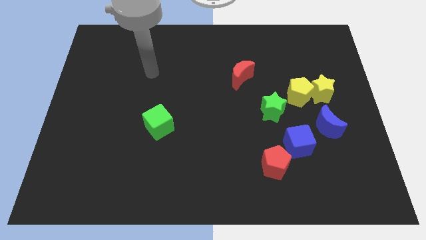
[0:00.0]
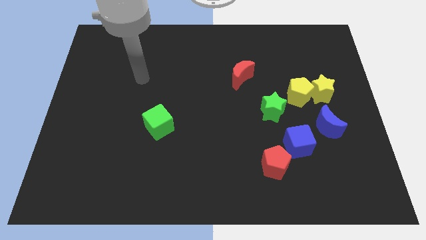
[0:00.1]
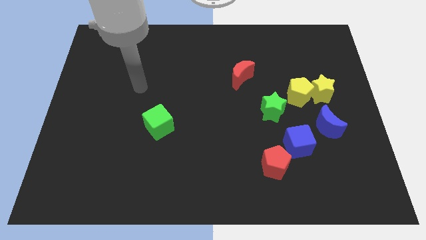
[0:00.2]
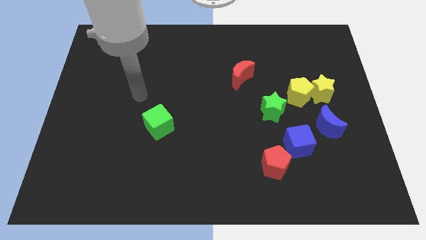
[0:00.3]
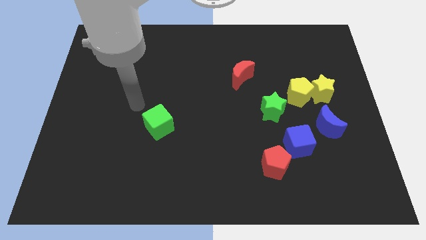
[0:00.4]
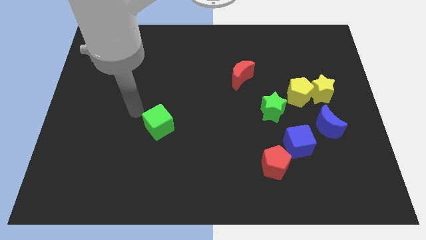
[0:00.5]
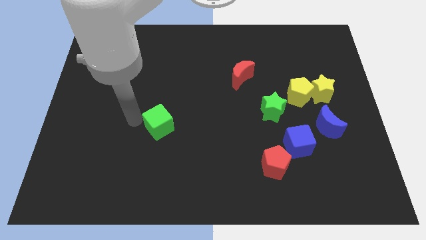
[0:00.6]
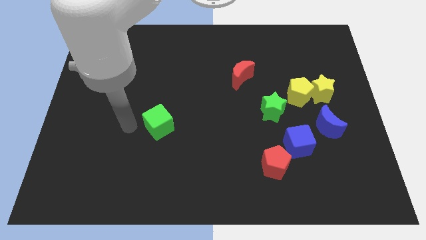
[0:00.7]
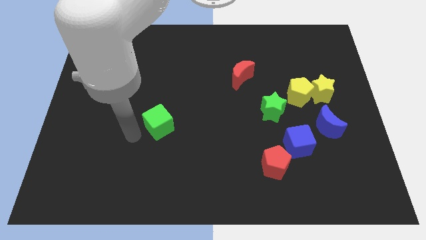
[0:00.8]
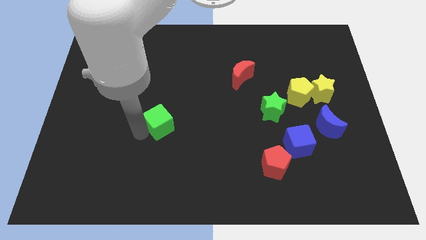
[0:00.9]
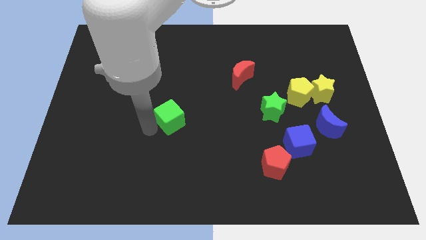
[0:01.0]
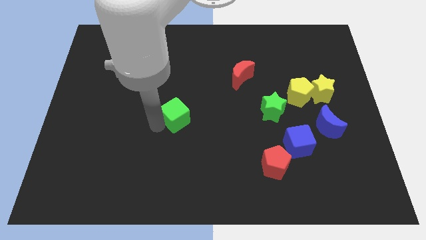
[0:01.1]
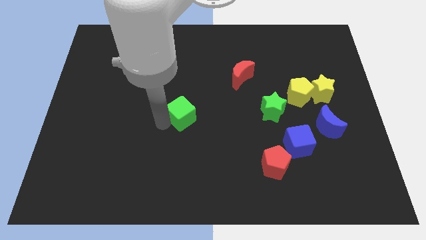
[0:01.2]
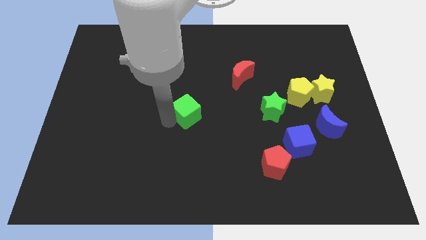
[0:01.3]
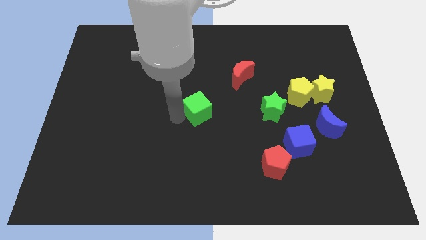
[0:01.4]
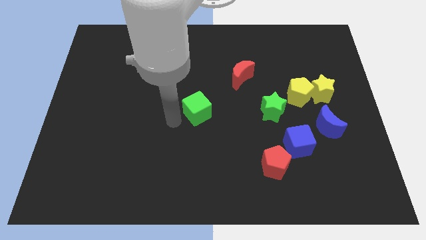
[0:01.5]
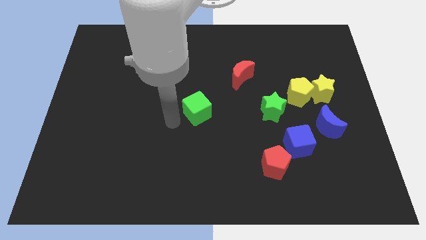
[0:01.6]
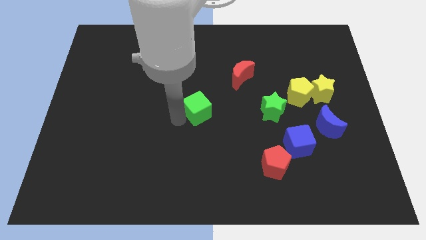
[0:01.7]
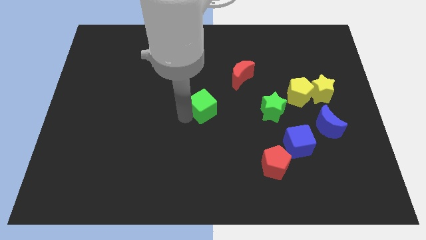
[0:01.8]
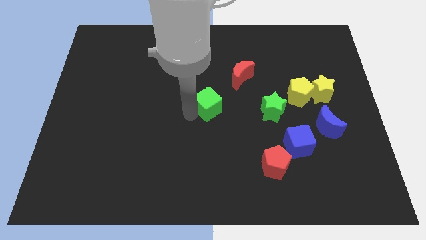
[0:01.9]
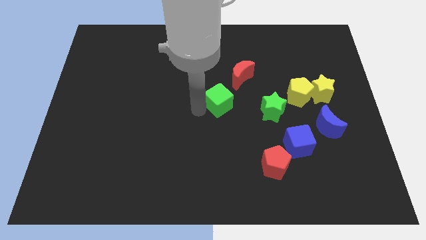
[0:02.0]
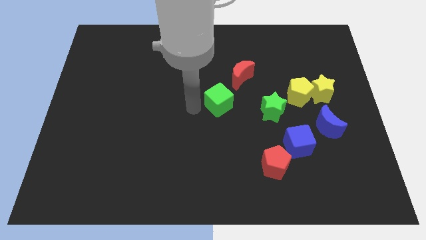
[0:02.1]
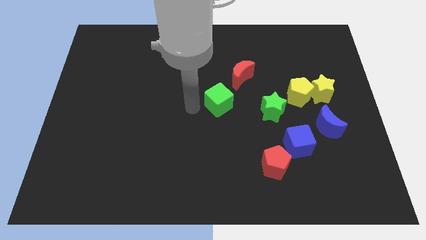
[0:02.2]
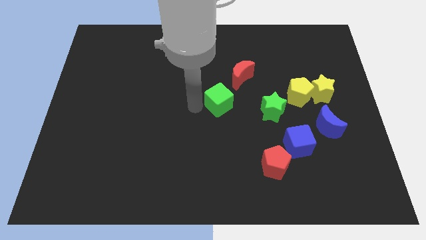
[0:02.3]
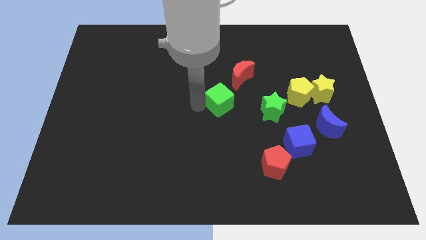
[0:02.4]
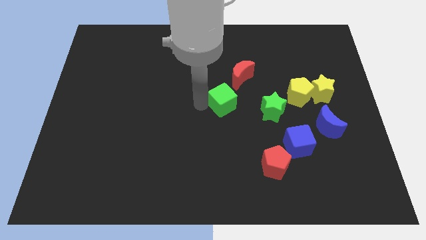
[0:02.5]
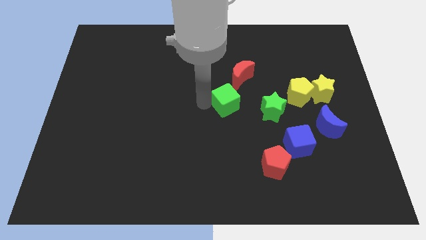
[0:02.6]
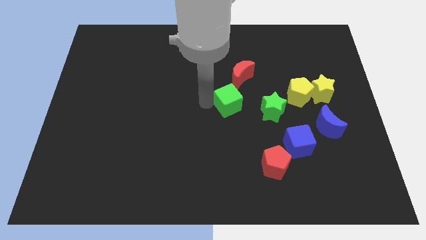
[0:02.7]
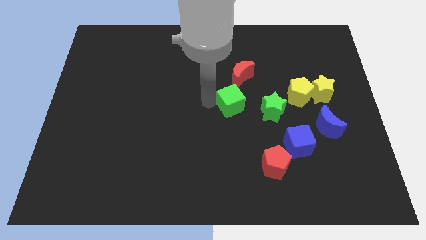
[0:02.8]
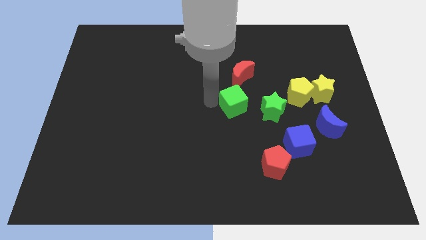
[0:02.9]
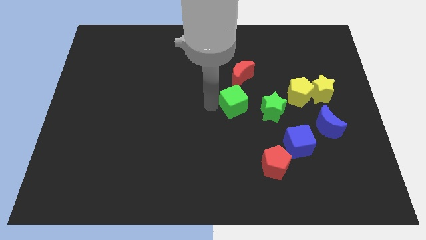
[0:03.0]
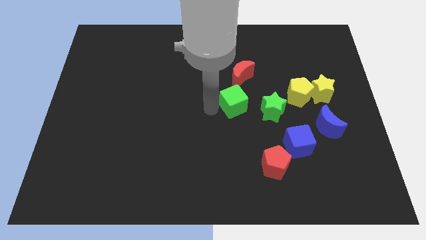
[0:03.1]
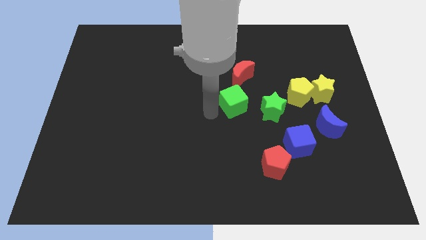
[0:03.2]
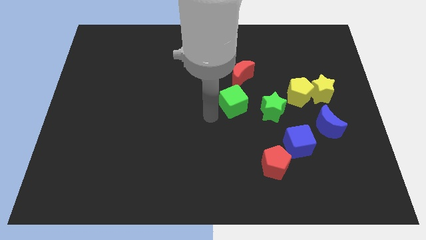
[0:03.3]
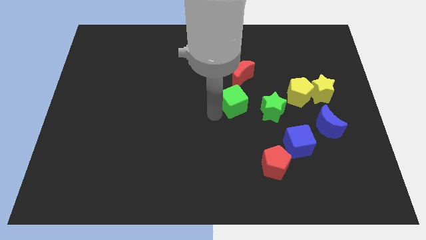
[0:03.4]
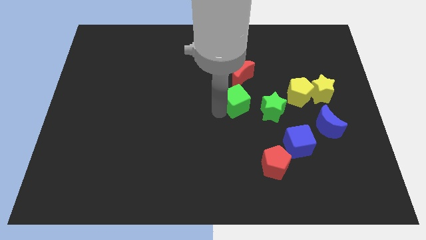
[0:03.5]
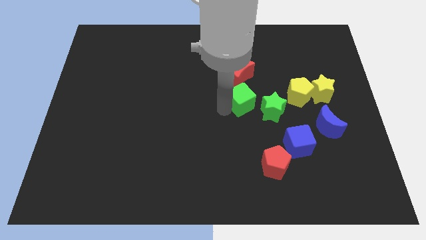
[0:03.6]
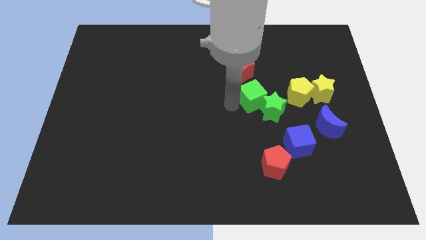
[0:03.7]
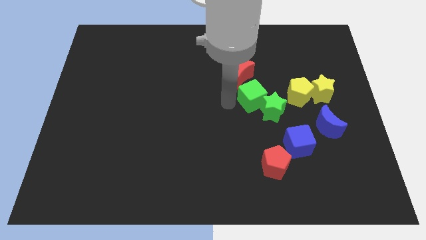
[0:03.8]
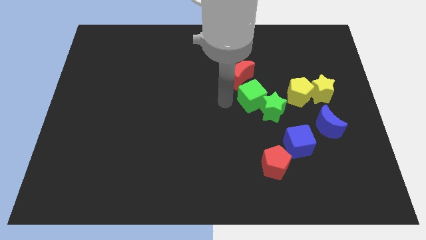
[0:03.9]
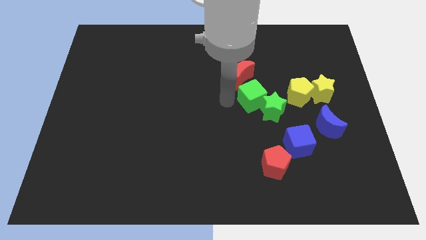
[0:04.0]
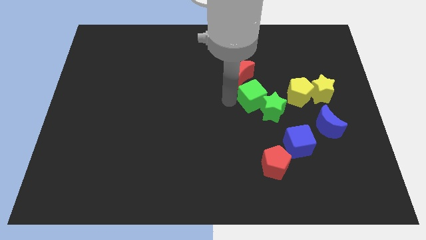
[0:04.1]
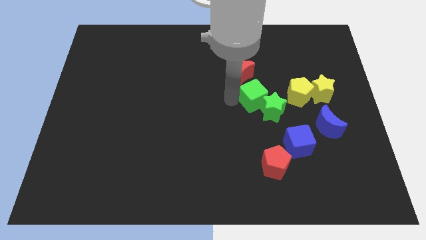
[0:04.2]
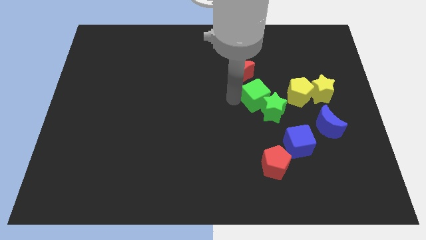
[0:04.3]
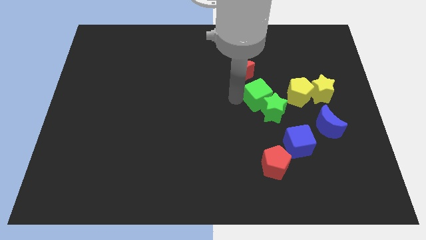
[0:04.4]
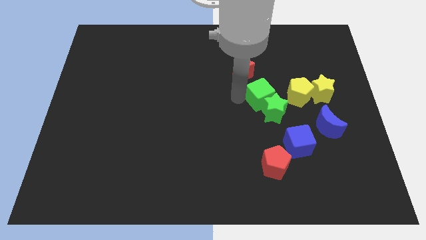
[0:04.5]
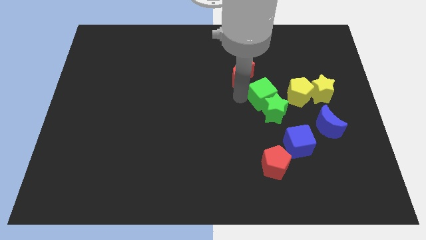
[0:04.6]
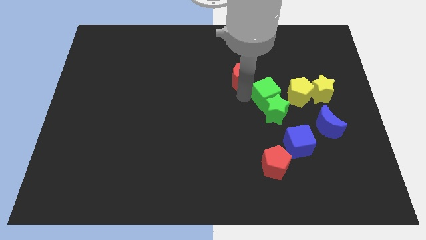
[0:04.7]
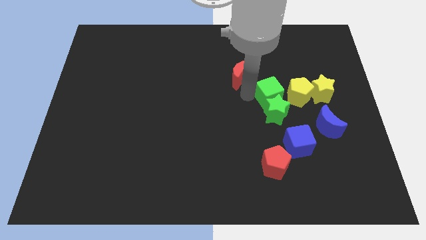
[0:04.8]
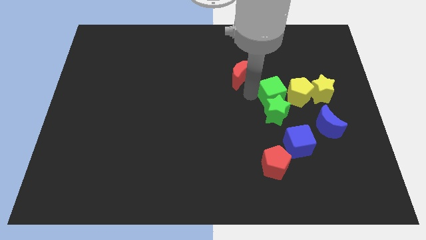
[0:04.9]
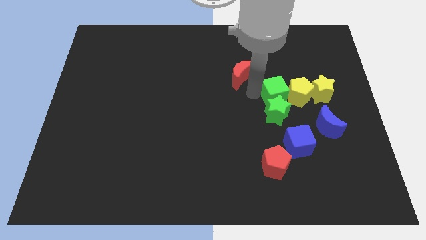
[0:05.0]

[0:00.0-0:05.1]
put the green cube towards the yellow pentagon

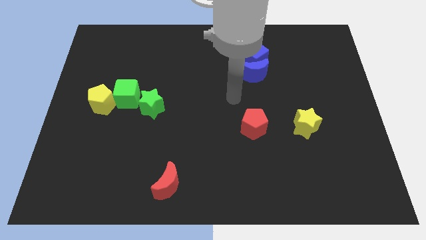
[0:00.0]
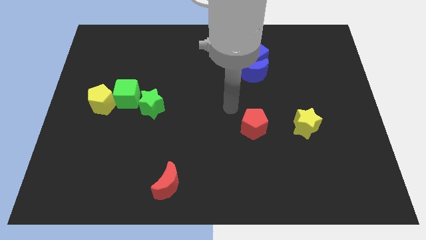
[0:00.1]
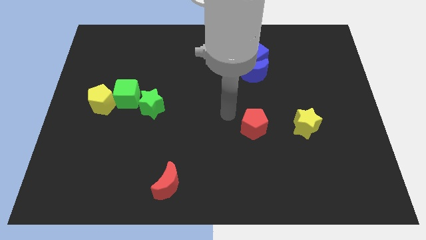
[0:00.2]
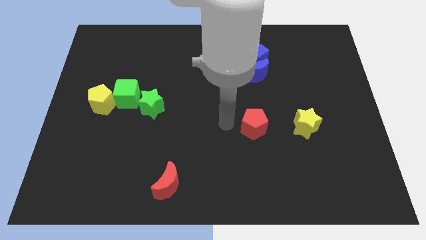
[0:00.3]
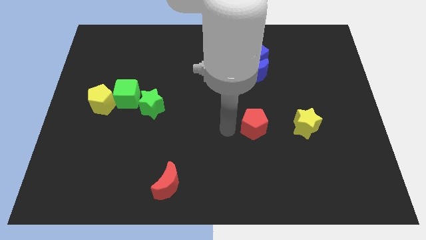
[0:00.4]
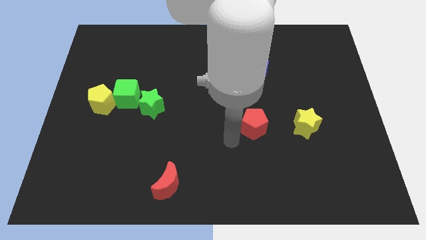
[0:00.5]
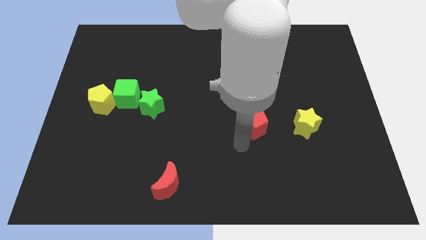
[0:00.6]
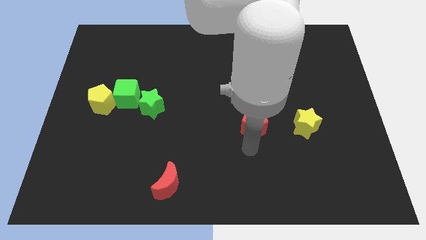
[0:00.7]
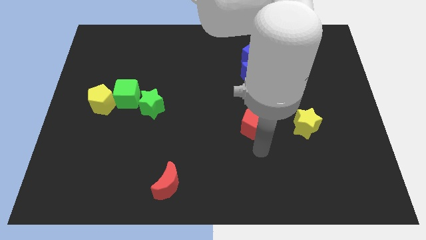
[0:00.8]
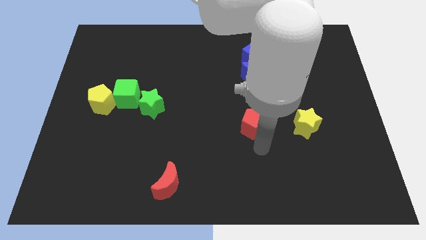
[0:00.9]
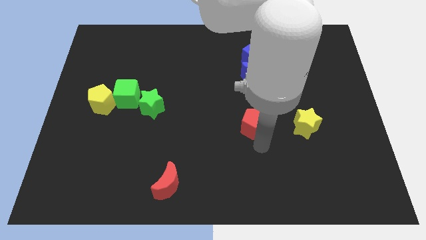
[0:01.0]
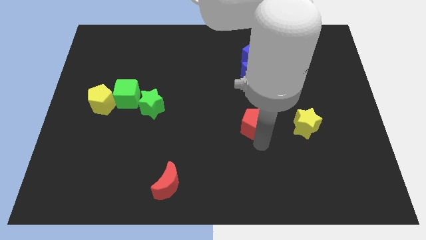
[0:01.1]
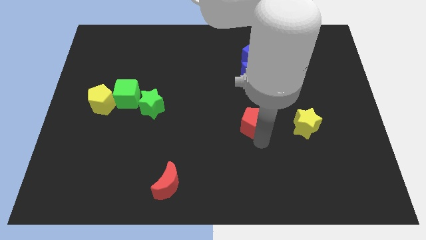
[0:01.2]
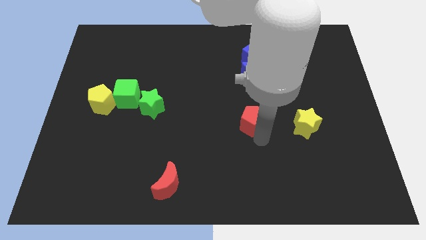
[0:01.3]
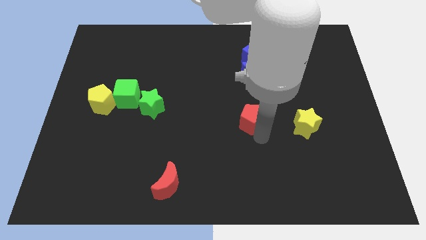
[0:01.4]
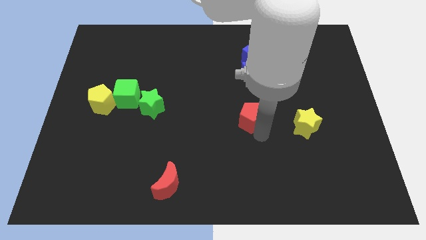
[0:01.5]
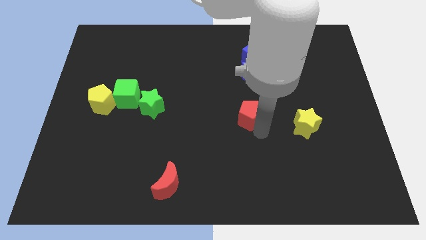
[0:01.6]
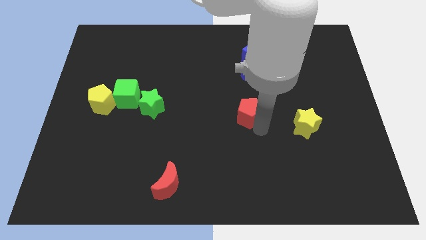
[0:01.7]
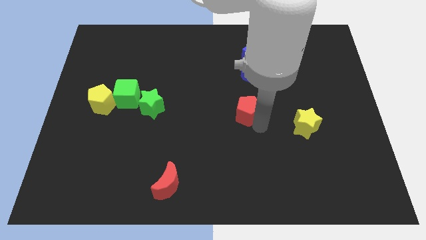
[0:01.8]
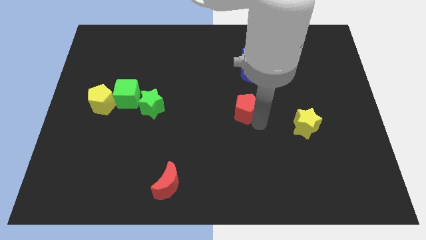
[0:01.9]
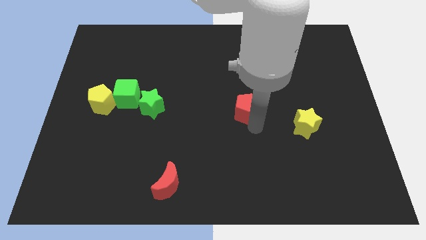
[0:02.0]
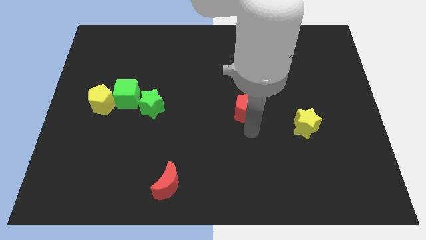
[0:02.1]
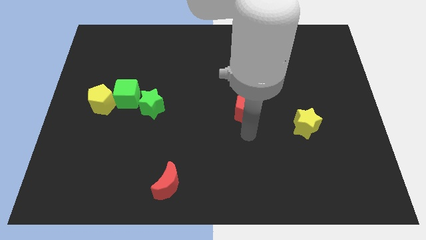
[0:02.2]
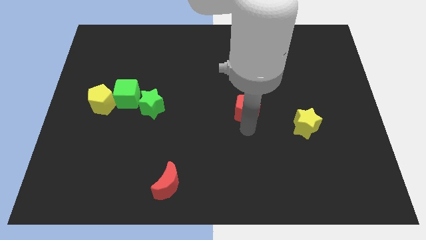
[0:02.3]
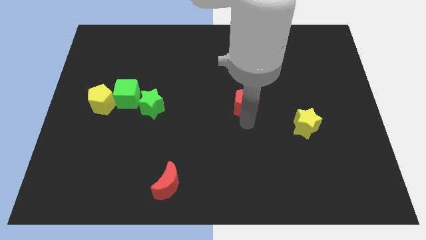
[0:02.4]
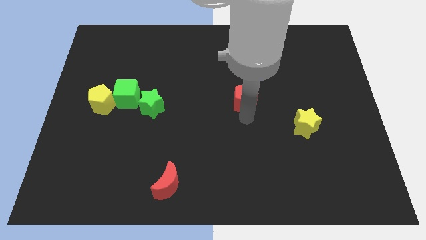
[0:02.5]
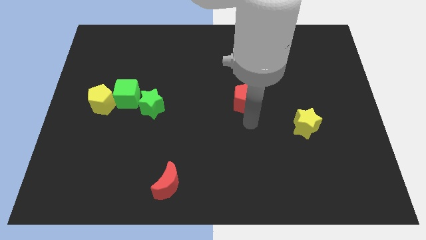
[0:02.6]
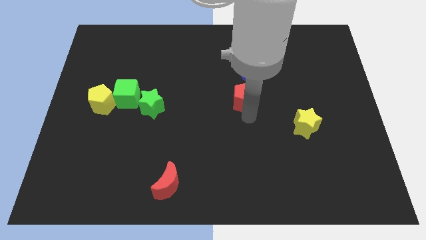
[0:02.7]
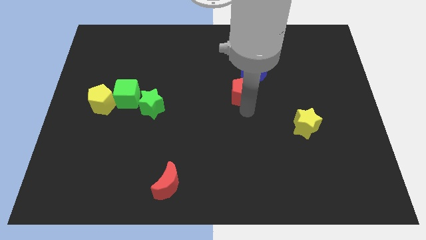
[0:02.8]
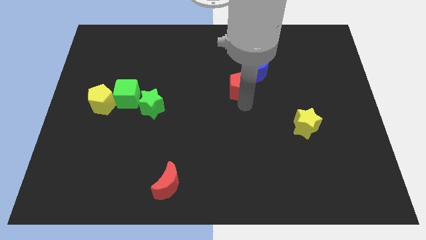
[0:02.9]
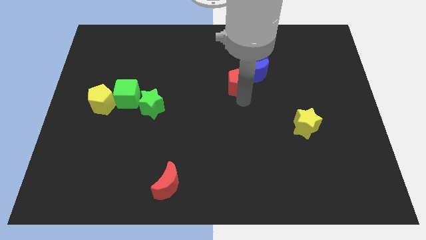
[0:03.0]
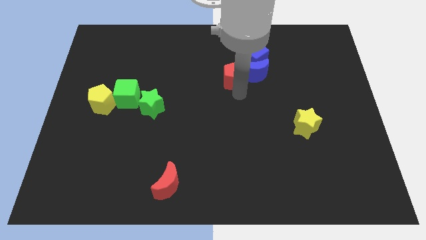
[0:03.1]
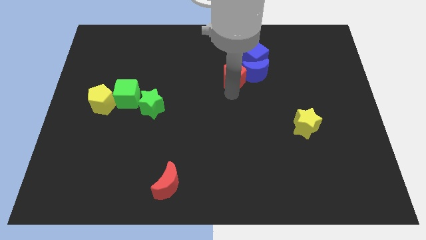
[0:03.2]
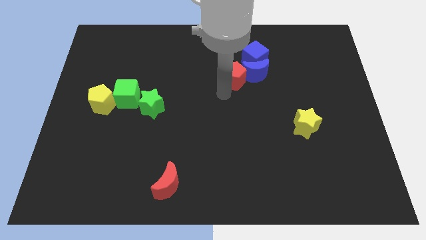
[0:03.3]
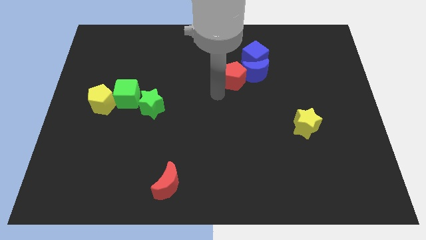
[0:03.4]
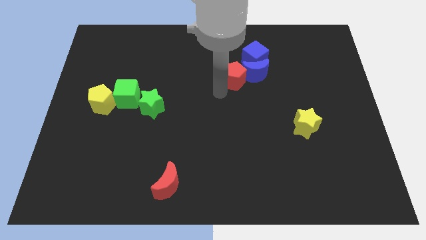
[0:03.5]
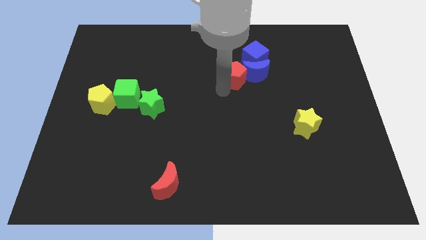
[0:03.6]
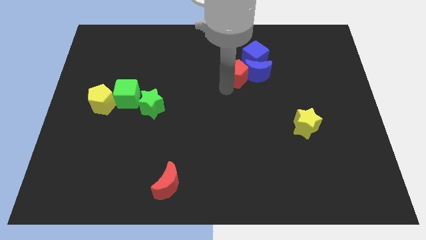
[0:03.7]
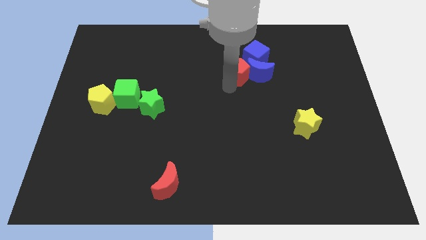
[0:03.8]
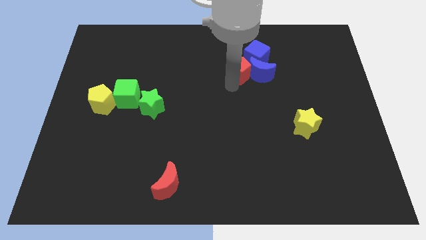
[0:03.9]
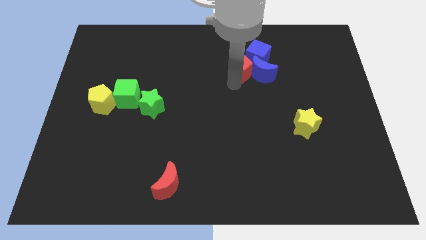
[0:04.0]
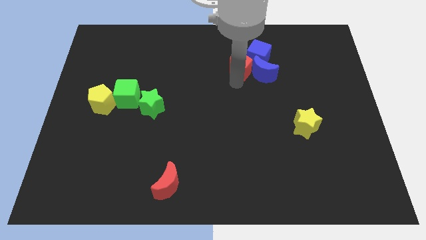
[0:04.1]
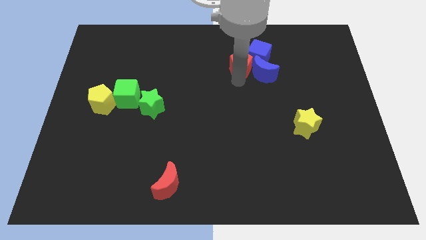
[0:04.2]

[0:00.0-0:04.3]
move the red pentagon next to the blue cube
